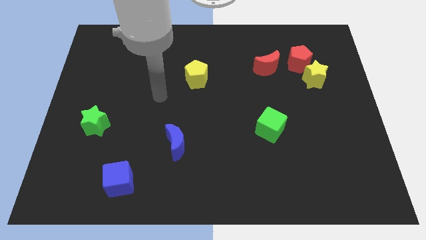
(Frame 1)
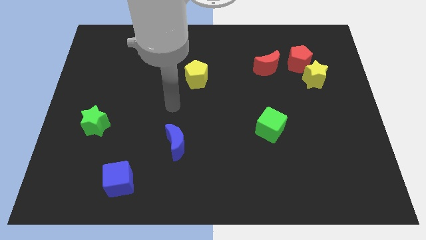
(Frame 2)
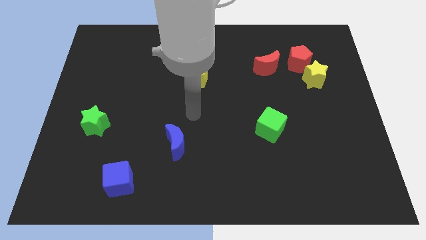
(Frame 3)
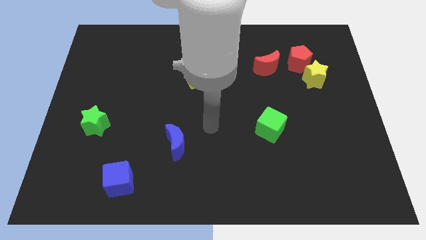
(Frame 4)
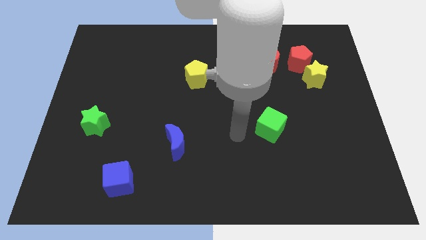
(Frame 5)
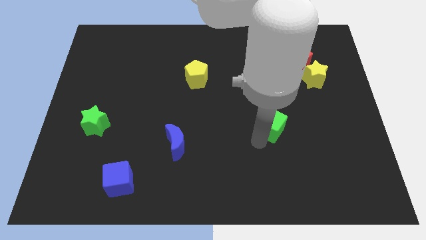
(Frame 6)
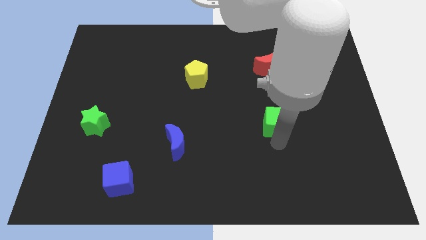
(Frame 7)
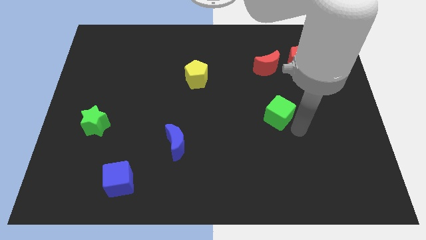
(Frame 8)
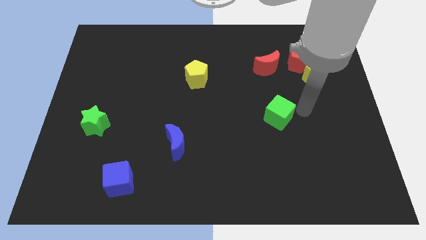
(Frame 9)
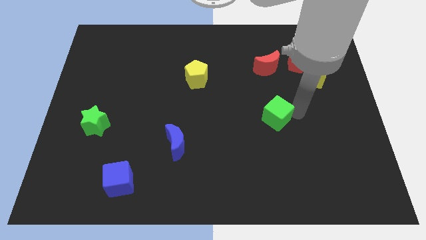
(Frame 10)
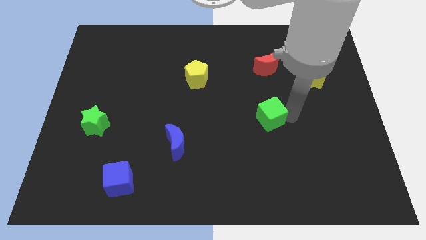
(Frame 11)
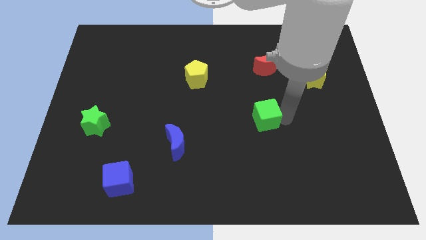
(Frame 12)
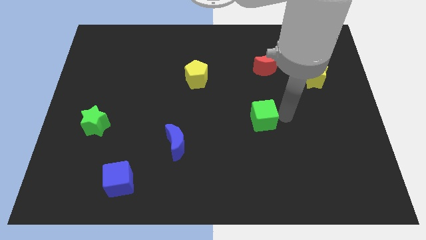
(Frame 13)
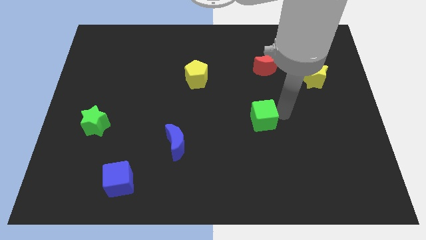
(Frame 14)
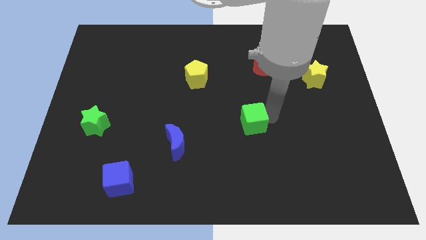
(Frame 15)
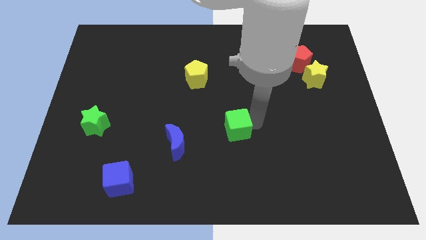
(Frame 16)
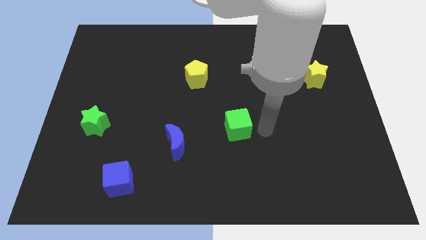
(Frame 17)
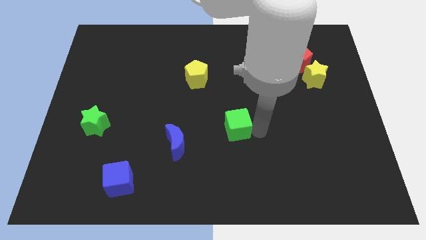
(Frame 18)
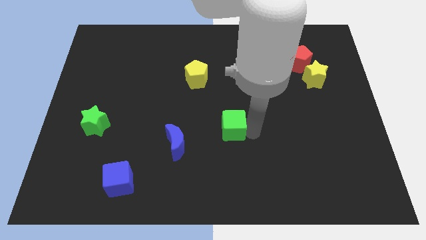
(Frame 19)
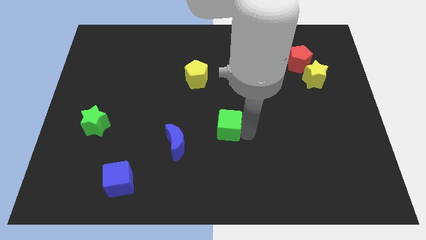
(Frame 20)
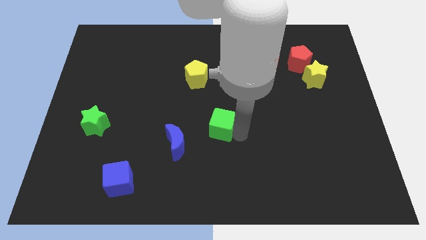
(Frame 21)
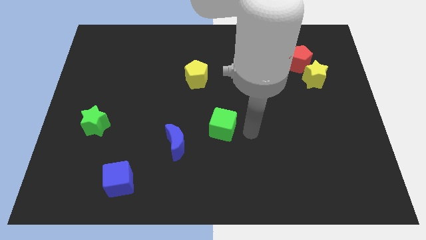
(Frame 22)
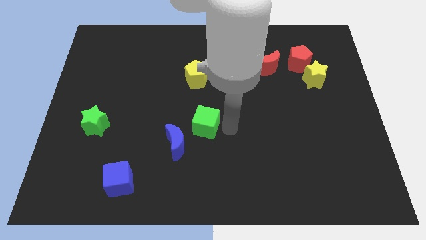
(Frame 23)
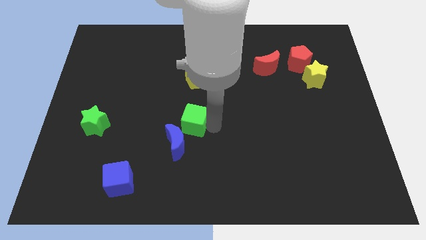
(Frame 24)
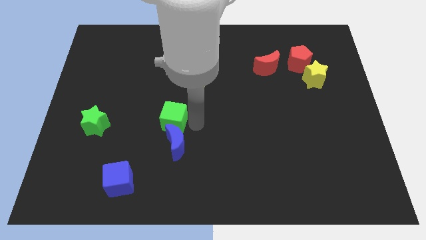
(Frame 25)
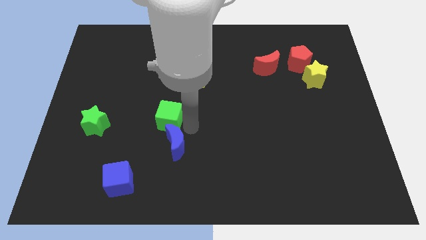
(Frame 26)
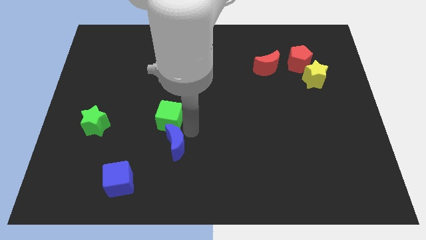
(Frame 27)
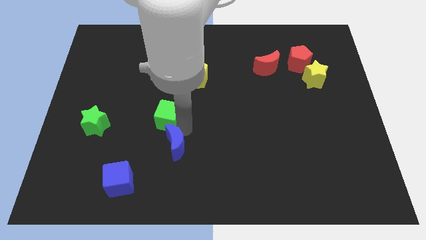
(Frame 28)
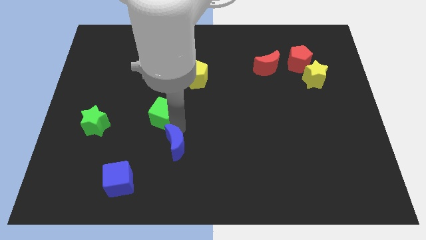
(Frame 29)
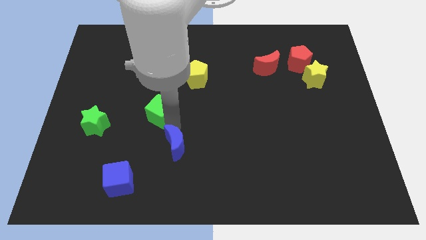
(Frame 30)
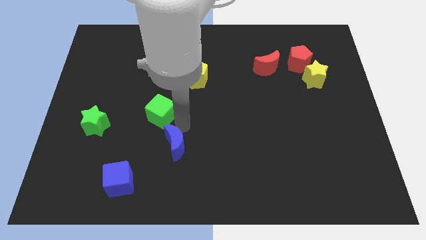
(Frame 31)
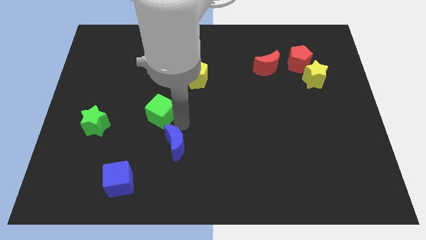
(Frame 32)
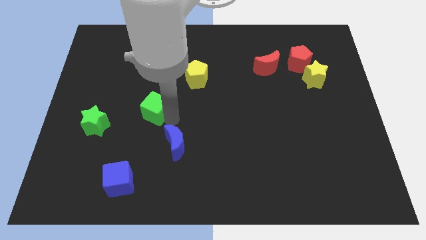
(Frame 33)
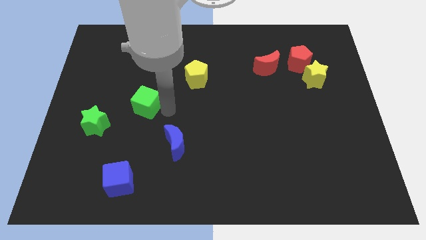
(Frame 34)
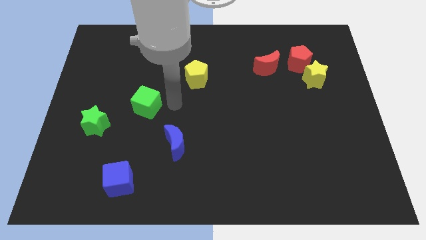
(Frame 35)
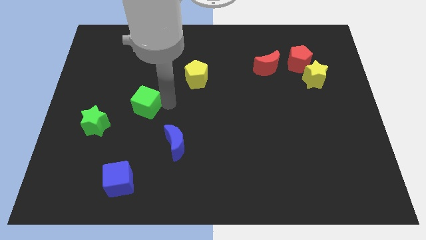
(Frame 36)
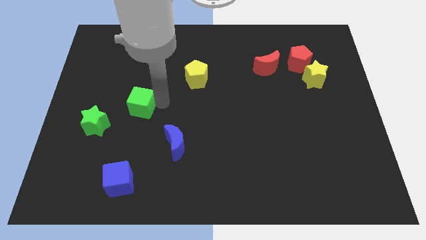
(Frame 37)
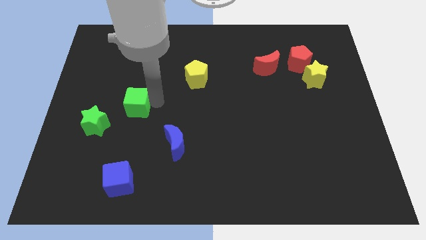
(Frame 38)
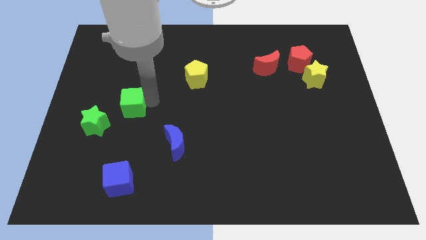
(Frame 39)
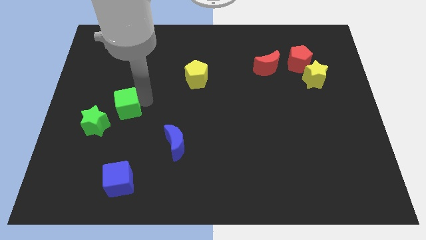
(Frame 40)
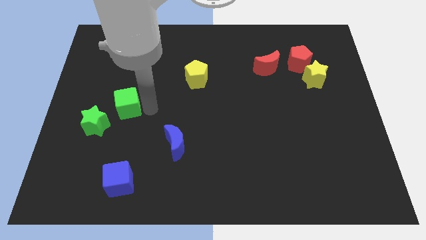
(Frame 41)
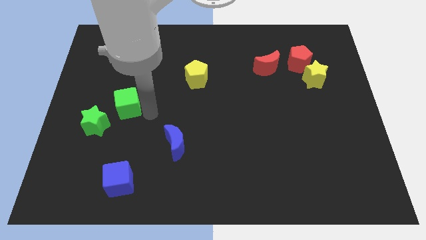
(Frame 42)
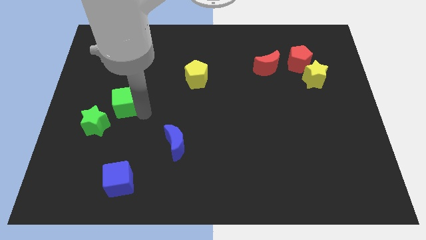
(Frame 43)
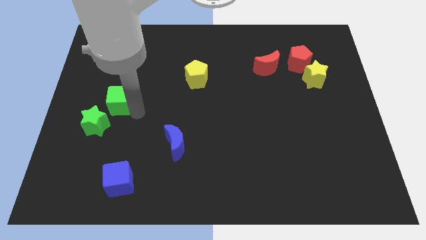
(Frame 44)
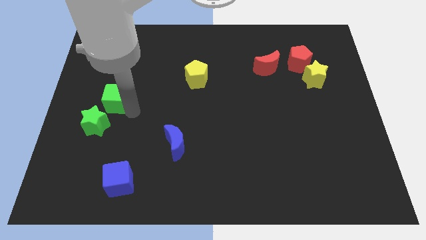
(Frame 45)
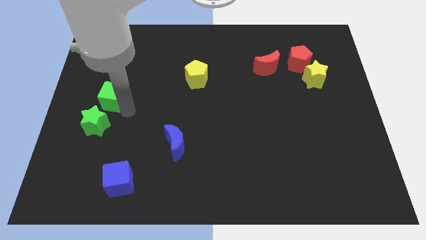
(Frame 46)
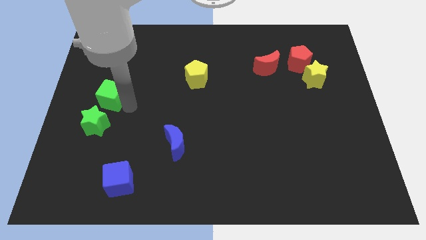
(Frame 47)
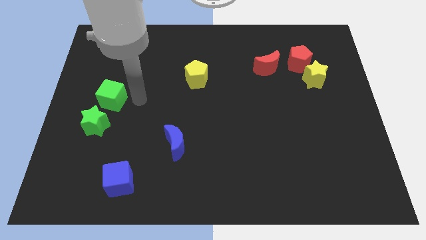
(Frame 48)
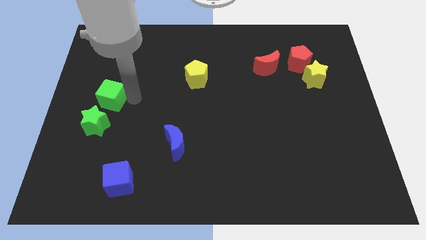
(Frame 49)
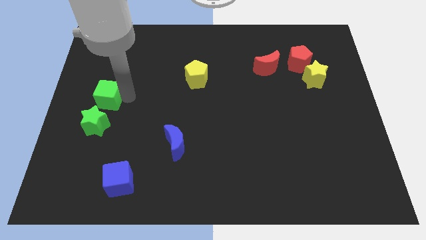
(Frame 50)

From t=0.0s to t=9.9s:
slide the green cube to the center left

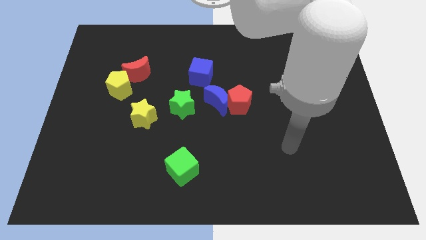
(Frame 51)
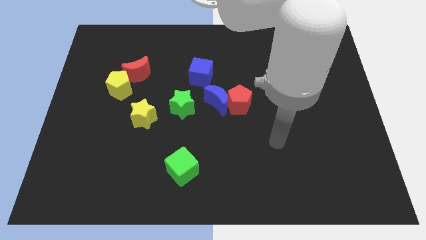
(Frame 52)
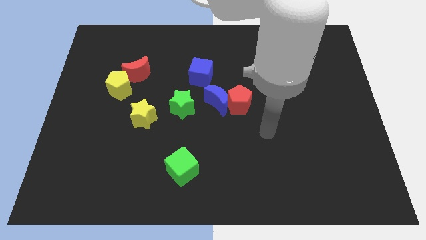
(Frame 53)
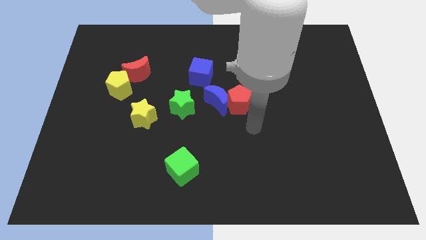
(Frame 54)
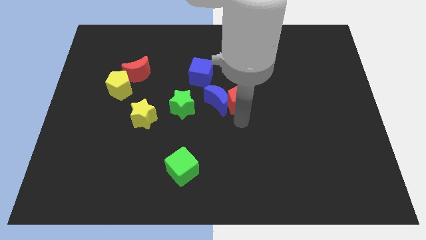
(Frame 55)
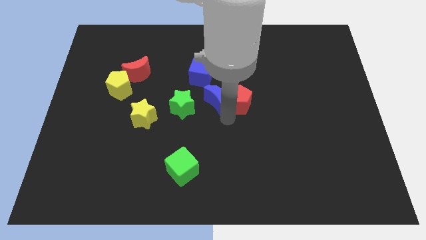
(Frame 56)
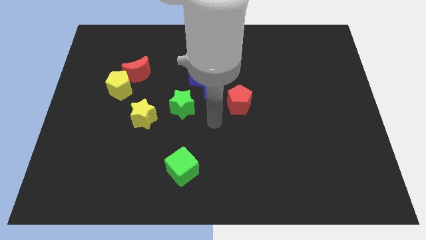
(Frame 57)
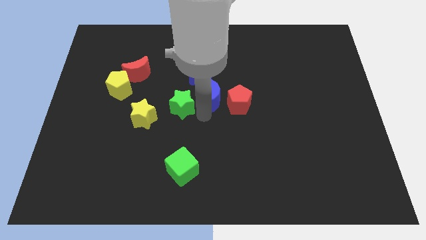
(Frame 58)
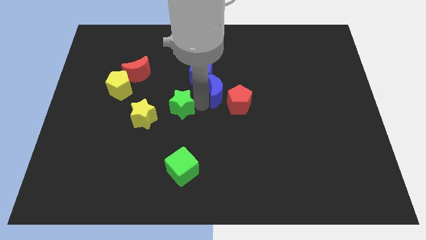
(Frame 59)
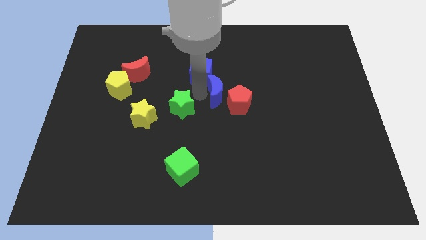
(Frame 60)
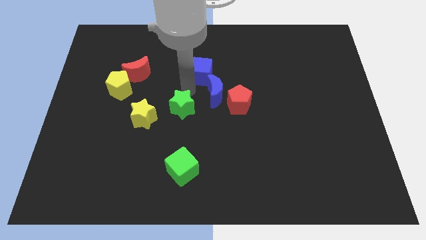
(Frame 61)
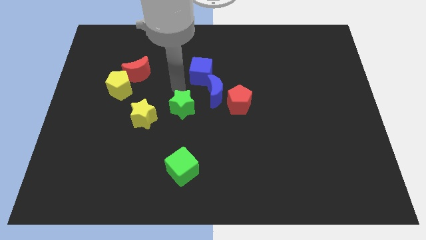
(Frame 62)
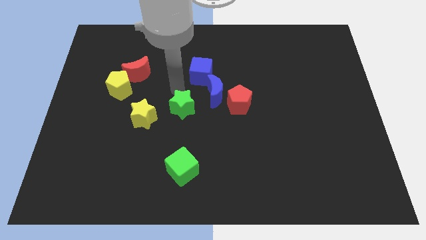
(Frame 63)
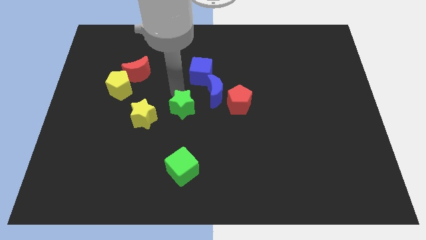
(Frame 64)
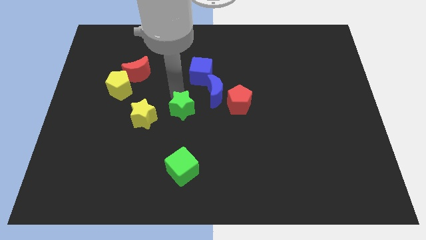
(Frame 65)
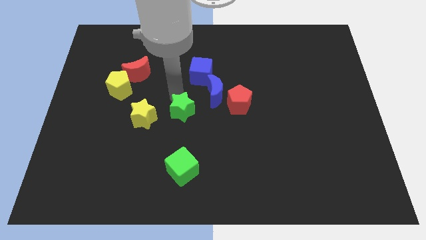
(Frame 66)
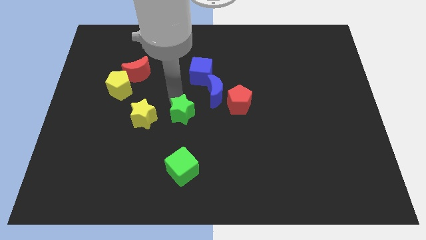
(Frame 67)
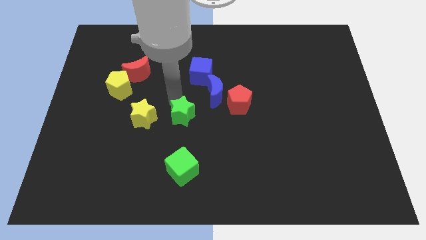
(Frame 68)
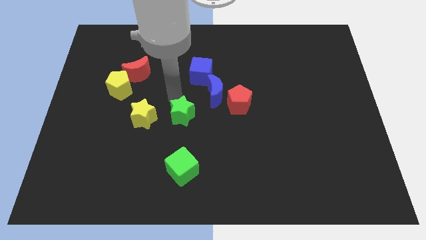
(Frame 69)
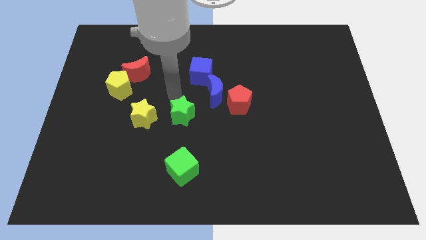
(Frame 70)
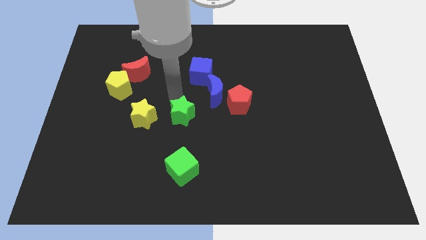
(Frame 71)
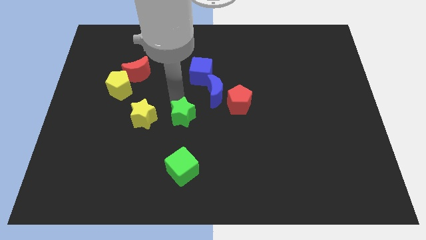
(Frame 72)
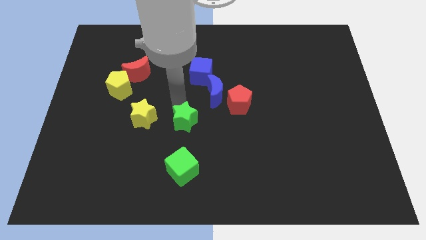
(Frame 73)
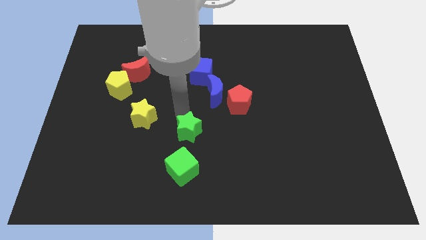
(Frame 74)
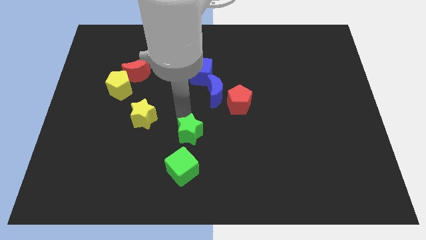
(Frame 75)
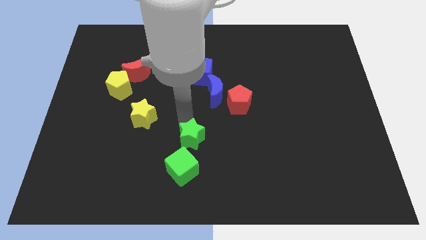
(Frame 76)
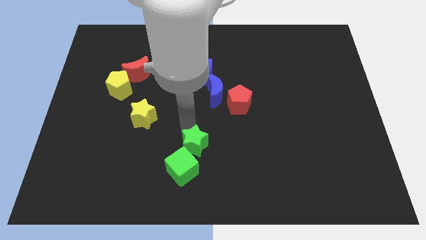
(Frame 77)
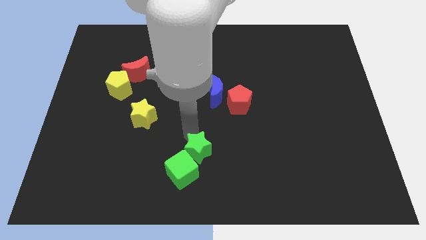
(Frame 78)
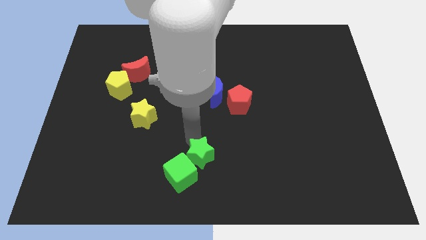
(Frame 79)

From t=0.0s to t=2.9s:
put the green star to the bottom side
